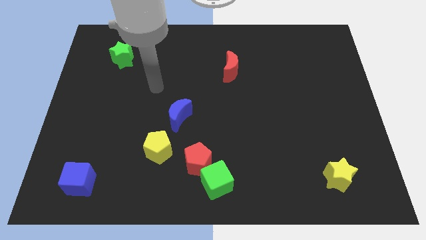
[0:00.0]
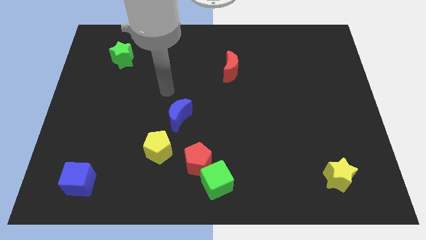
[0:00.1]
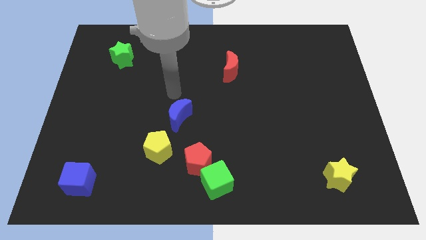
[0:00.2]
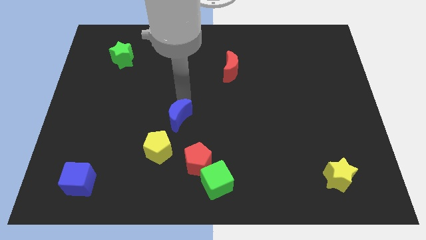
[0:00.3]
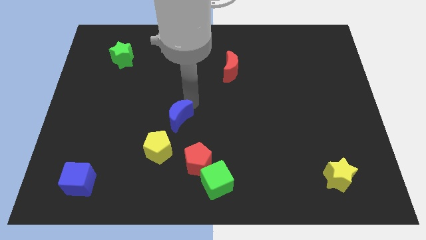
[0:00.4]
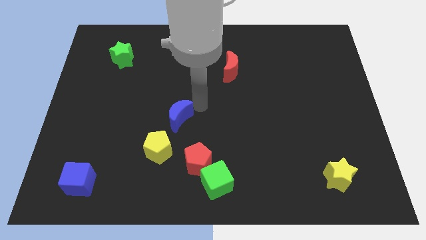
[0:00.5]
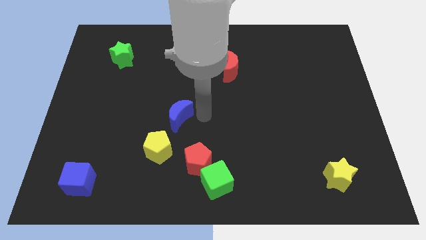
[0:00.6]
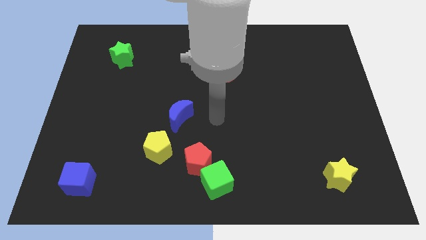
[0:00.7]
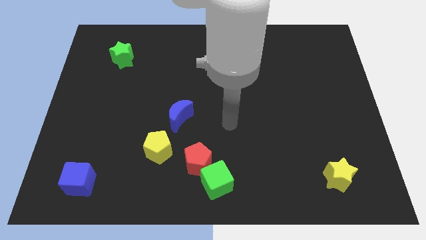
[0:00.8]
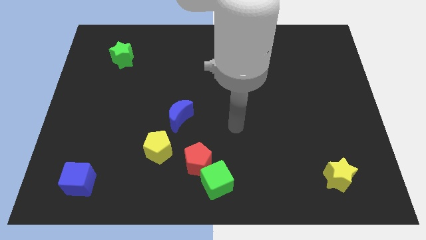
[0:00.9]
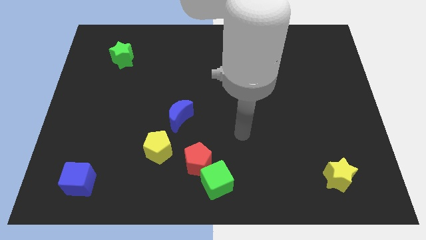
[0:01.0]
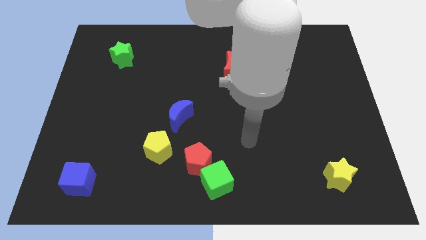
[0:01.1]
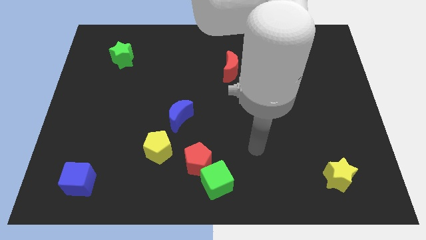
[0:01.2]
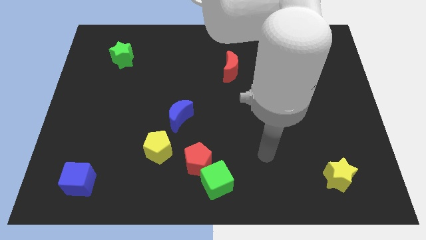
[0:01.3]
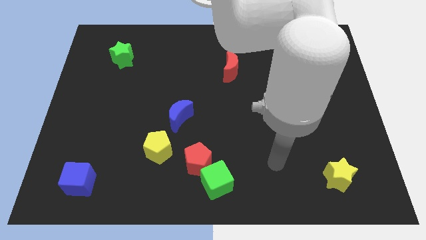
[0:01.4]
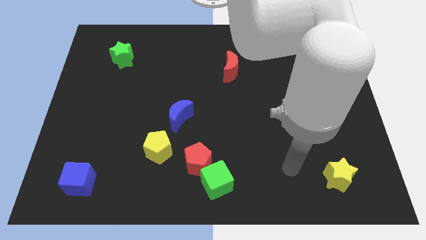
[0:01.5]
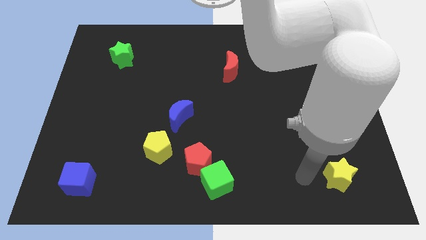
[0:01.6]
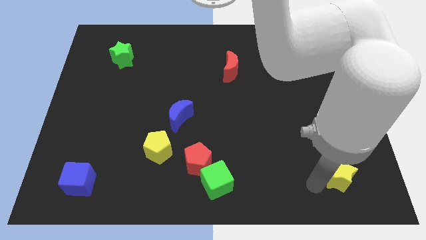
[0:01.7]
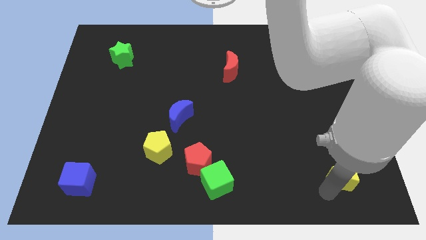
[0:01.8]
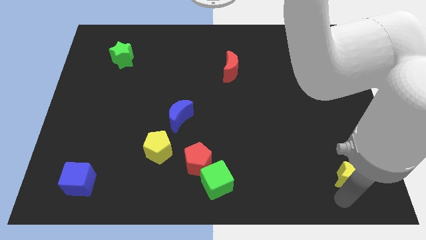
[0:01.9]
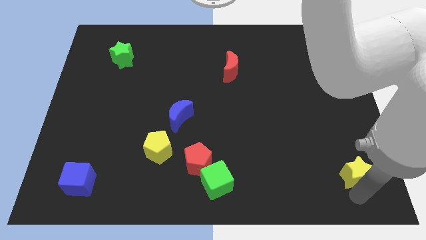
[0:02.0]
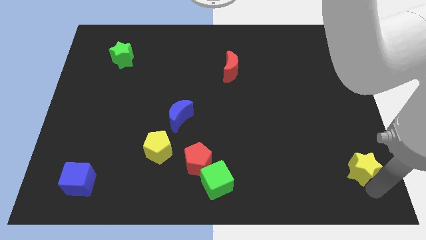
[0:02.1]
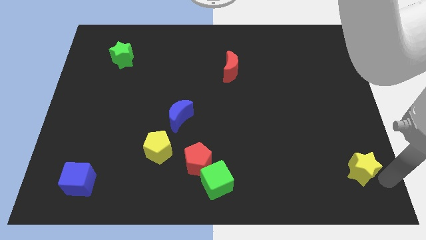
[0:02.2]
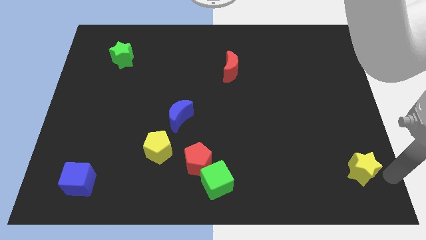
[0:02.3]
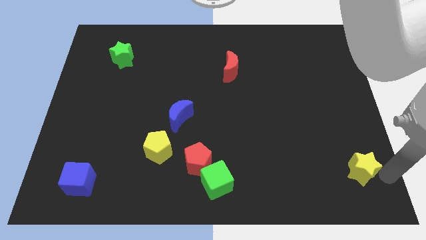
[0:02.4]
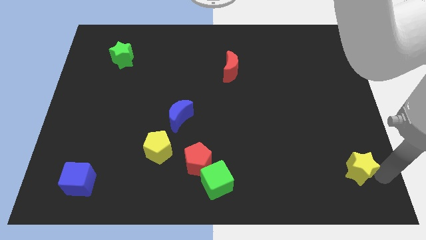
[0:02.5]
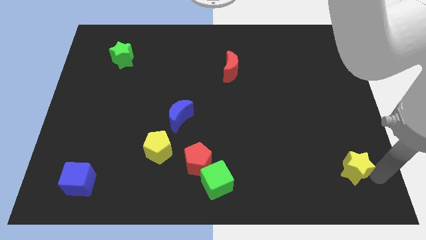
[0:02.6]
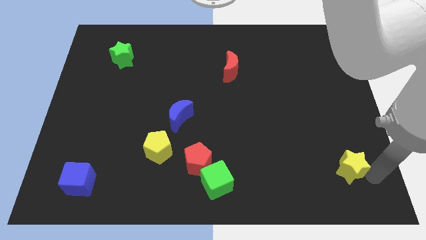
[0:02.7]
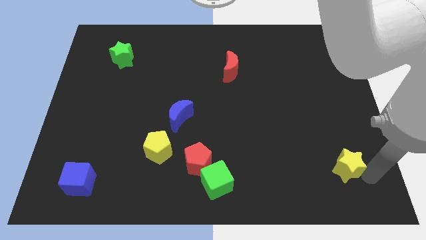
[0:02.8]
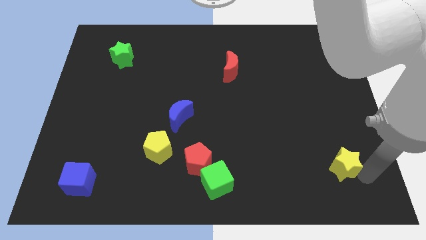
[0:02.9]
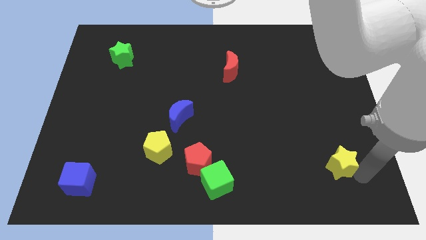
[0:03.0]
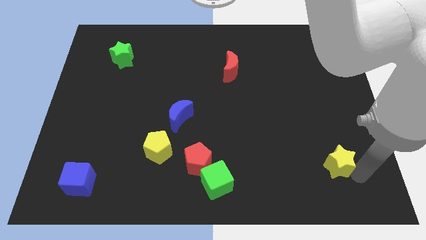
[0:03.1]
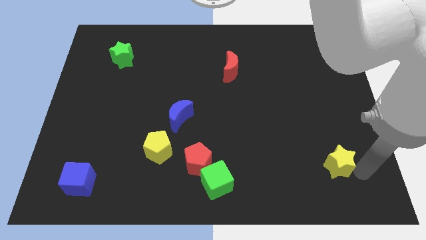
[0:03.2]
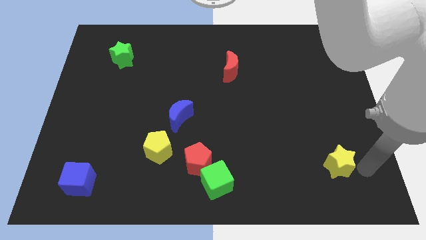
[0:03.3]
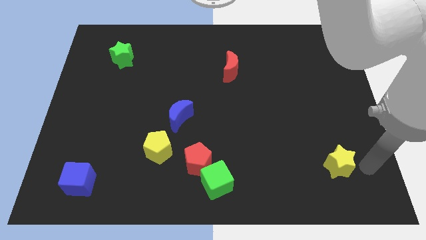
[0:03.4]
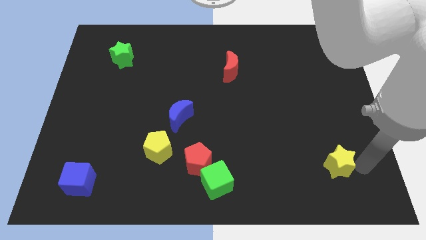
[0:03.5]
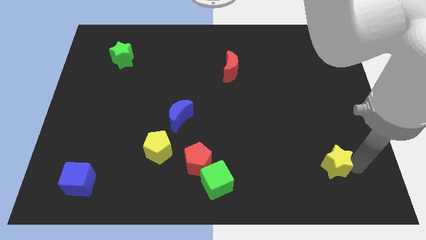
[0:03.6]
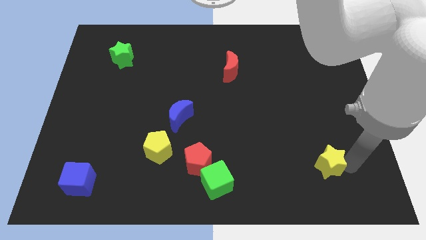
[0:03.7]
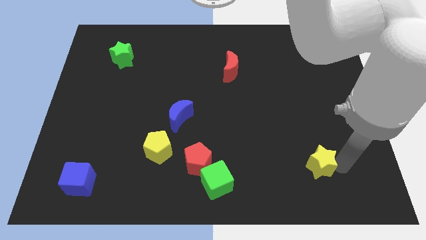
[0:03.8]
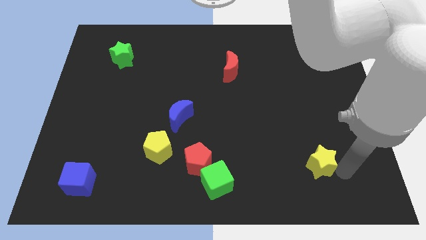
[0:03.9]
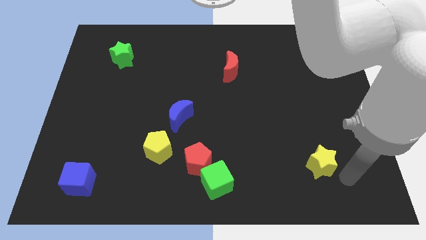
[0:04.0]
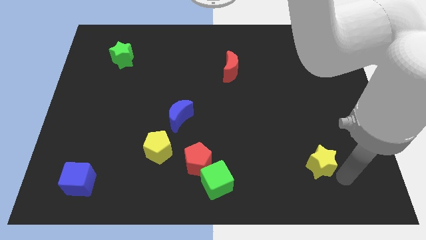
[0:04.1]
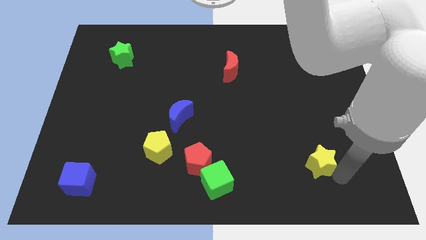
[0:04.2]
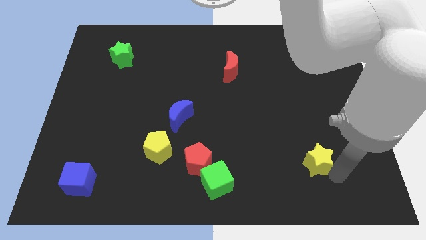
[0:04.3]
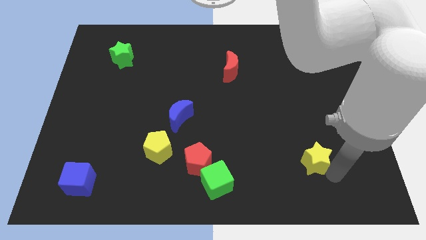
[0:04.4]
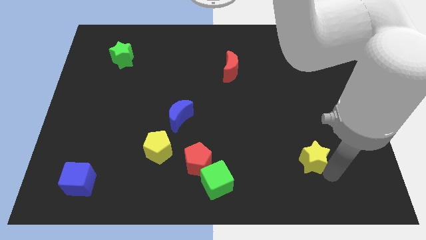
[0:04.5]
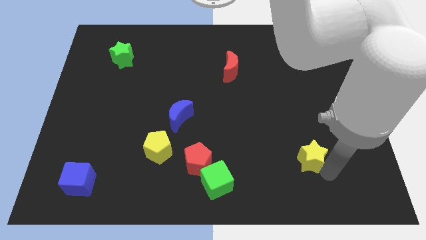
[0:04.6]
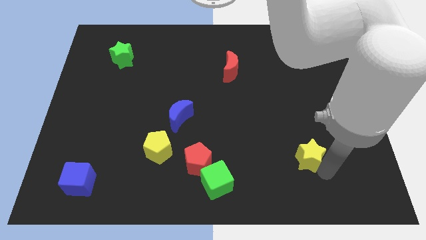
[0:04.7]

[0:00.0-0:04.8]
slightly push the yellow star upwards and left

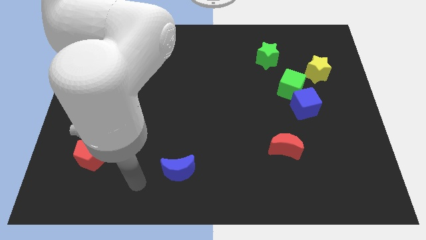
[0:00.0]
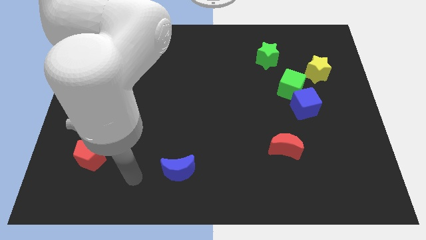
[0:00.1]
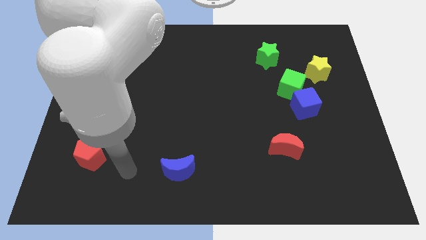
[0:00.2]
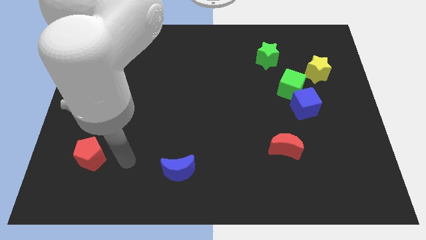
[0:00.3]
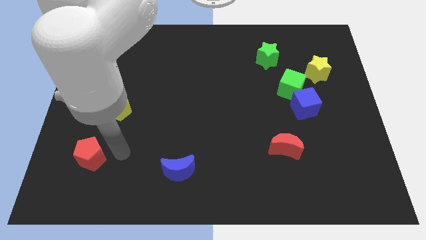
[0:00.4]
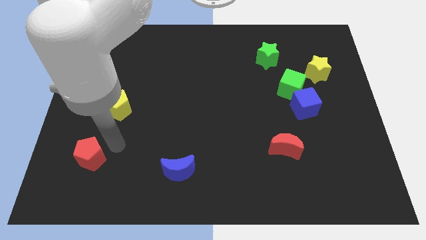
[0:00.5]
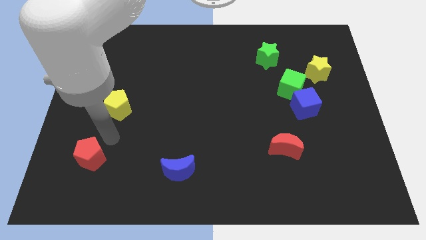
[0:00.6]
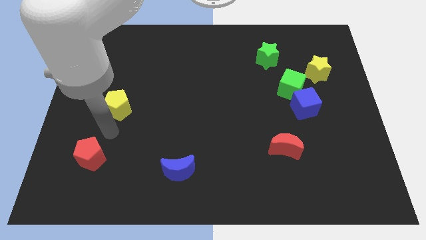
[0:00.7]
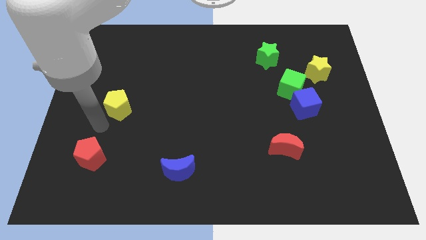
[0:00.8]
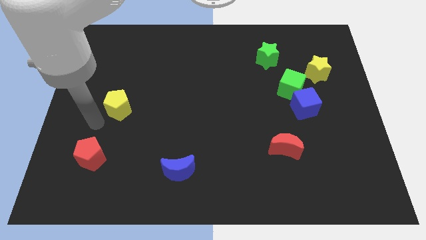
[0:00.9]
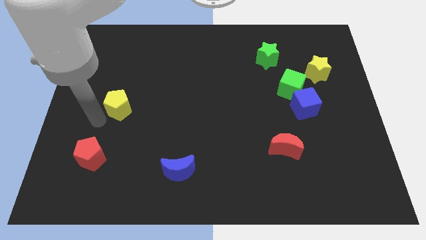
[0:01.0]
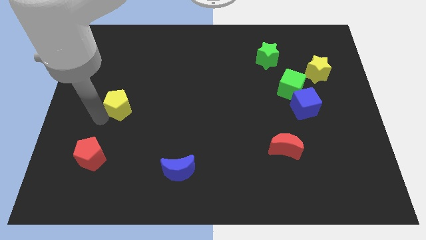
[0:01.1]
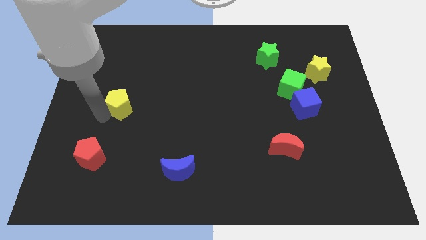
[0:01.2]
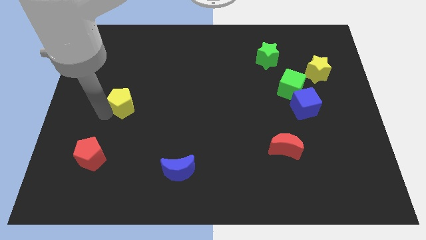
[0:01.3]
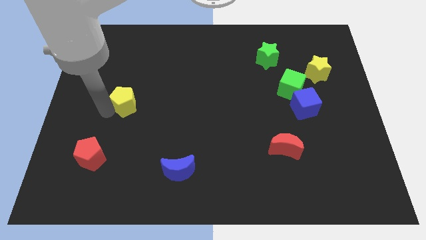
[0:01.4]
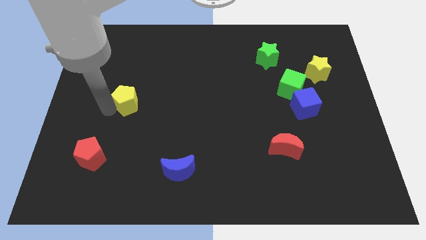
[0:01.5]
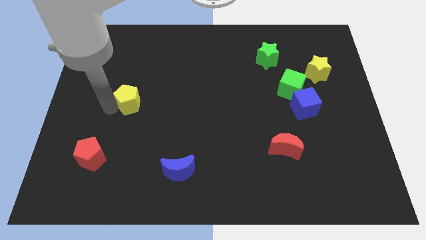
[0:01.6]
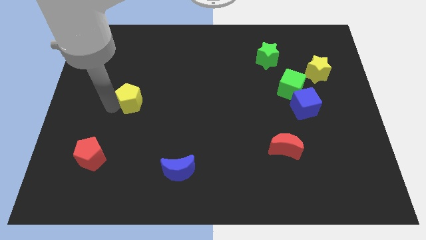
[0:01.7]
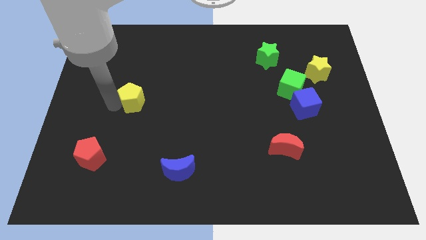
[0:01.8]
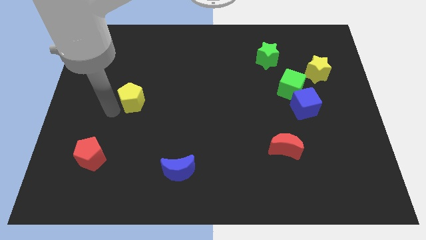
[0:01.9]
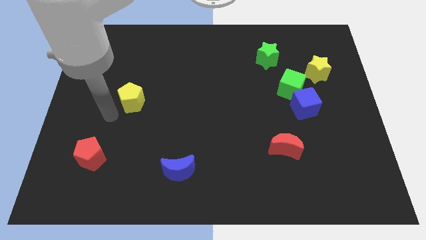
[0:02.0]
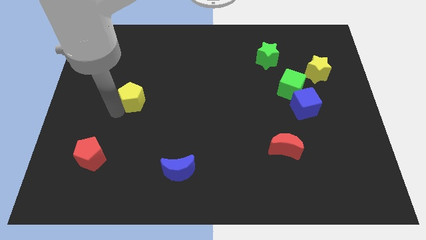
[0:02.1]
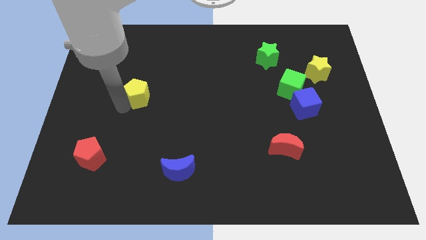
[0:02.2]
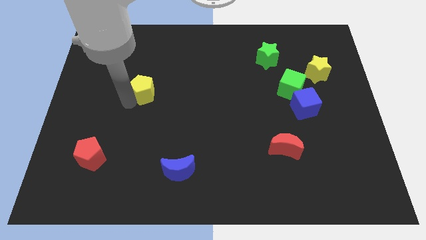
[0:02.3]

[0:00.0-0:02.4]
push the yellow pentagon slightly diagonally up and right

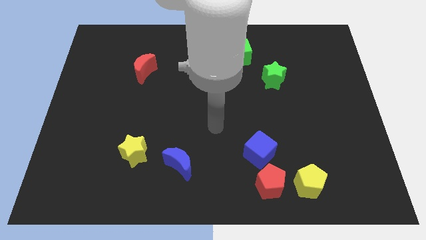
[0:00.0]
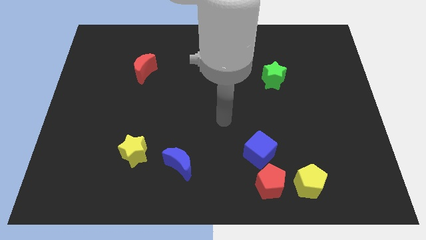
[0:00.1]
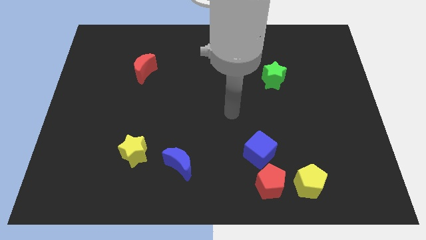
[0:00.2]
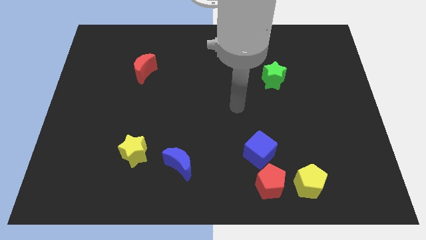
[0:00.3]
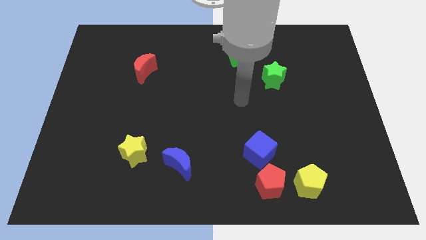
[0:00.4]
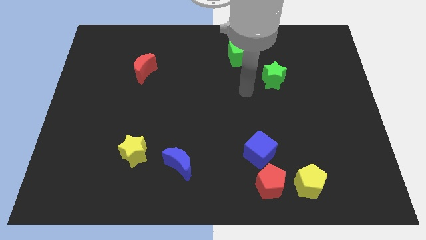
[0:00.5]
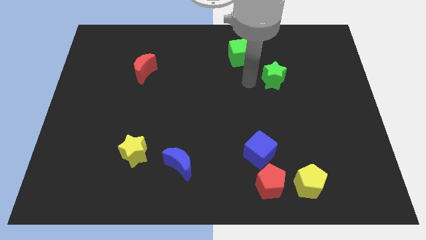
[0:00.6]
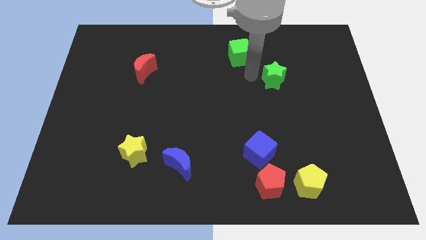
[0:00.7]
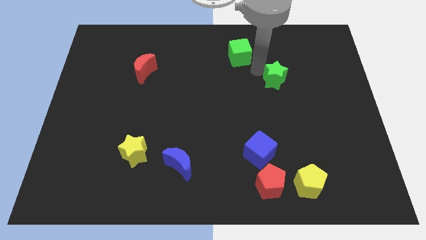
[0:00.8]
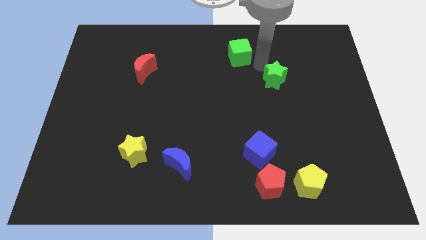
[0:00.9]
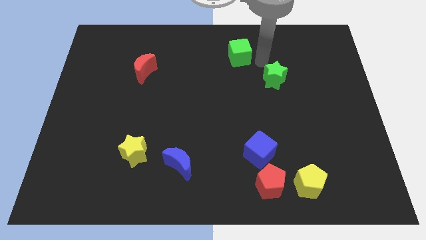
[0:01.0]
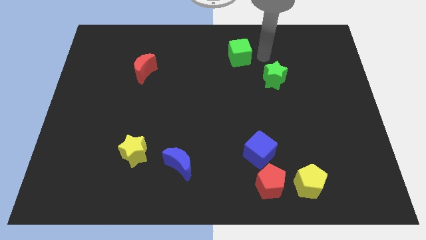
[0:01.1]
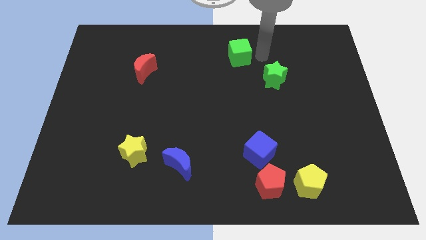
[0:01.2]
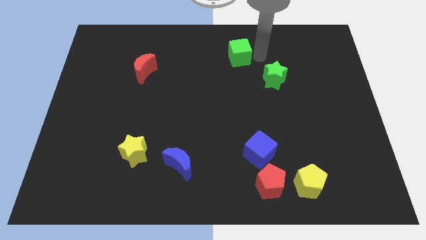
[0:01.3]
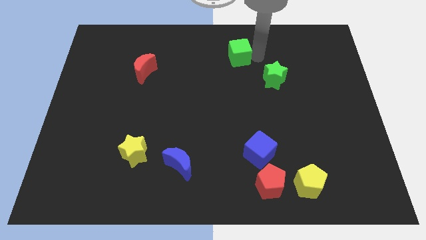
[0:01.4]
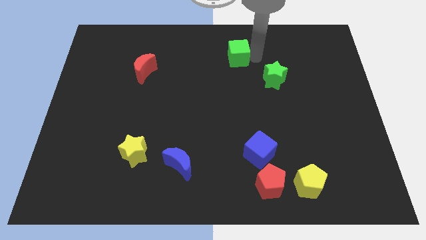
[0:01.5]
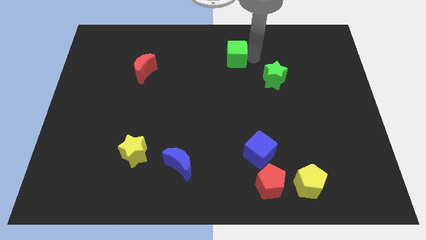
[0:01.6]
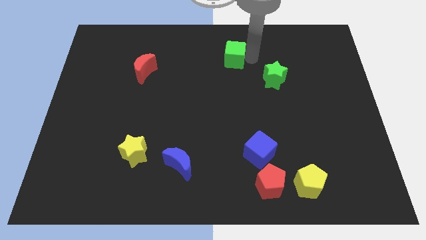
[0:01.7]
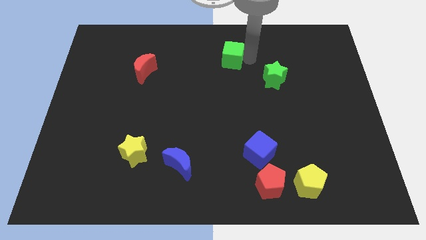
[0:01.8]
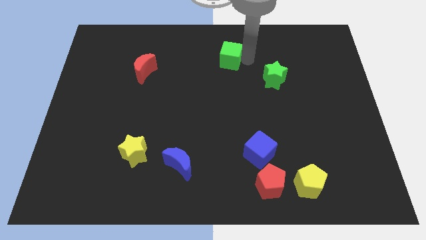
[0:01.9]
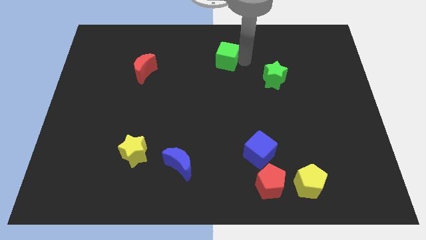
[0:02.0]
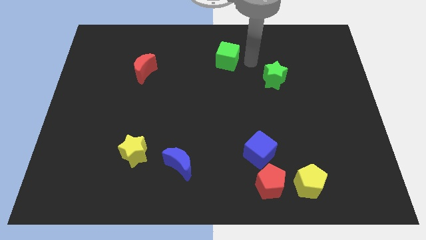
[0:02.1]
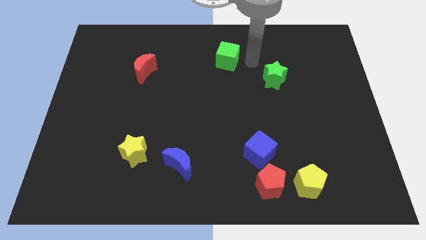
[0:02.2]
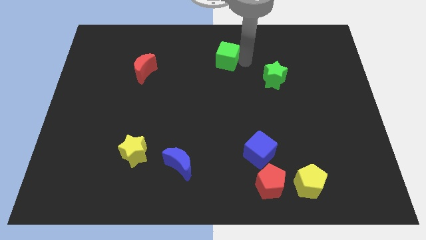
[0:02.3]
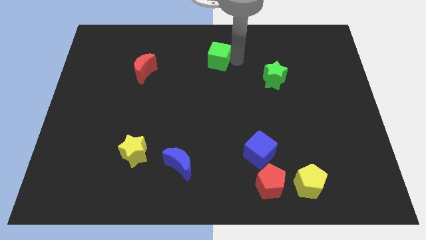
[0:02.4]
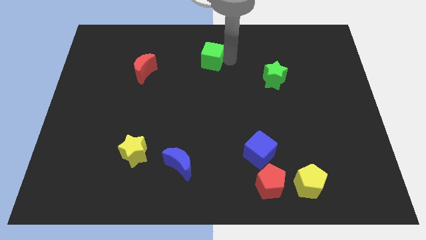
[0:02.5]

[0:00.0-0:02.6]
slide the green cube a bit to the left
